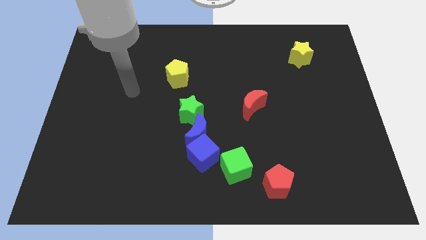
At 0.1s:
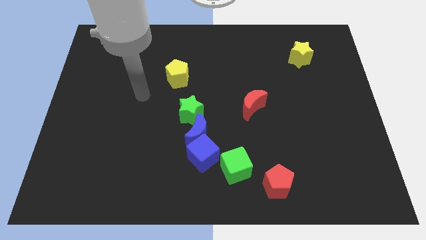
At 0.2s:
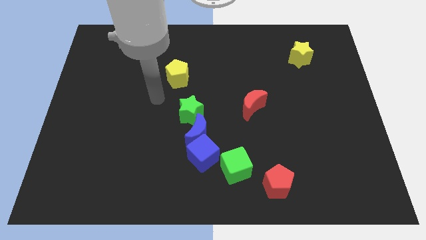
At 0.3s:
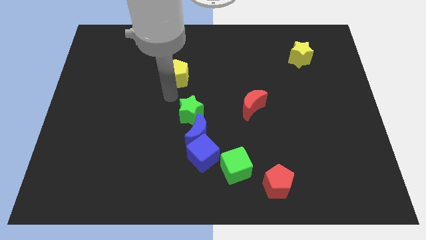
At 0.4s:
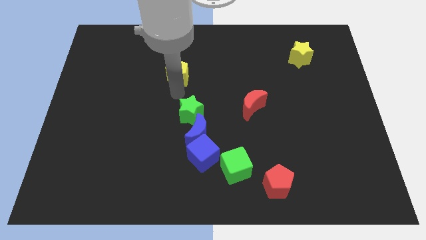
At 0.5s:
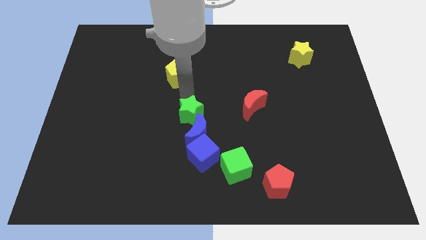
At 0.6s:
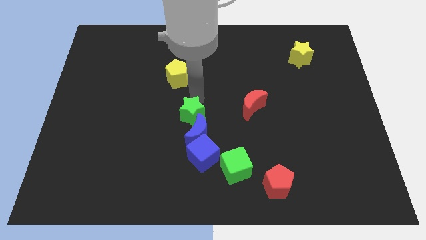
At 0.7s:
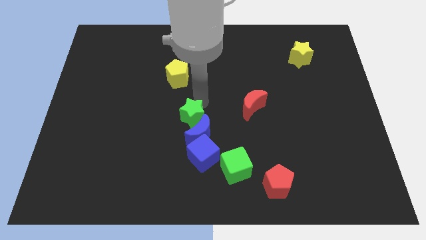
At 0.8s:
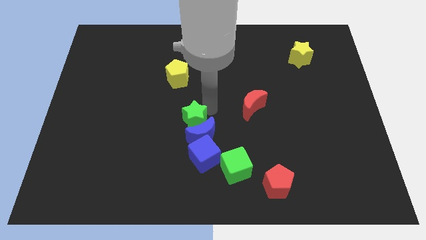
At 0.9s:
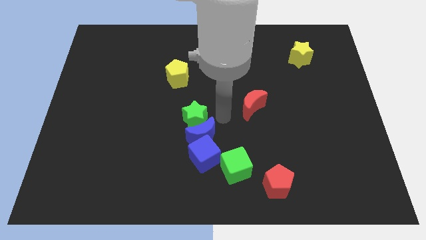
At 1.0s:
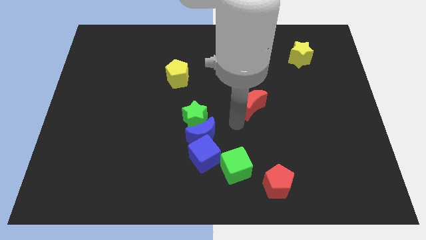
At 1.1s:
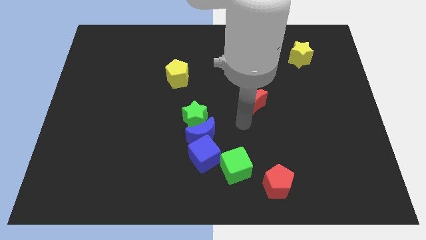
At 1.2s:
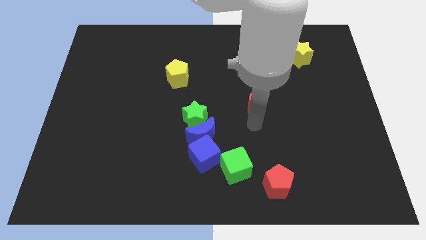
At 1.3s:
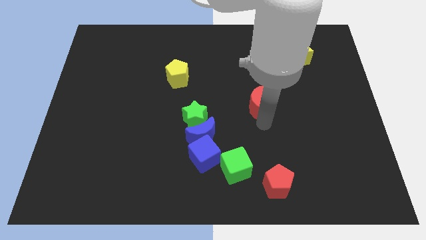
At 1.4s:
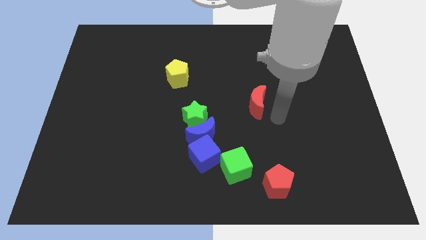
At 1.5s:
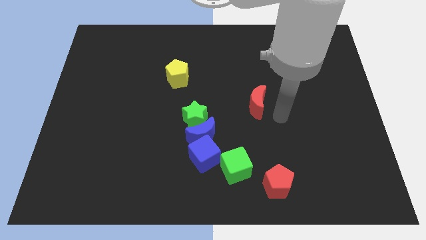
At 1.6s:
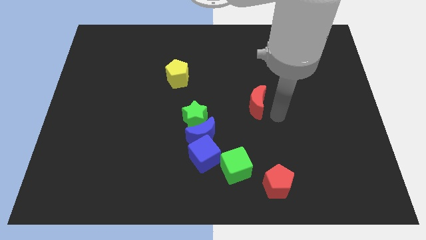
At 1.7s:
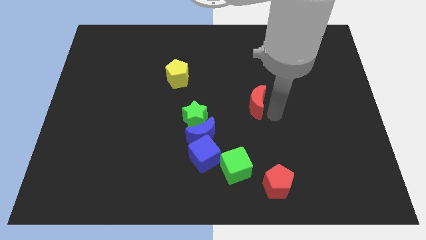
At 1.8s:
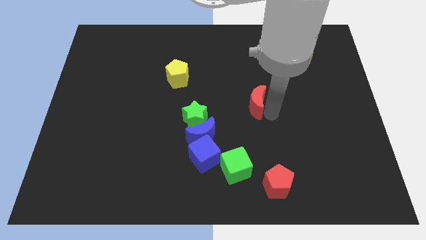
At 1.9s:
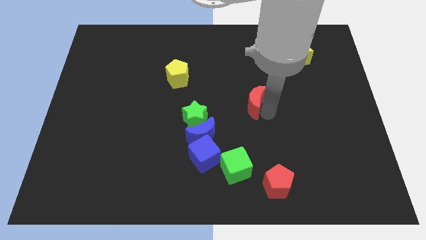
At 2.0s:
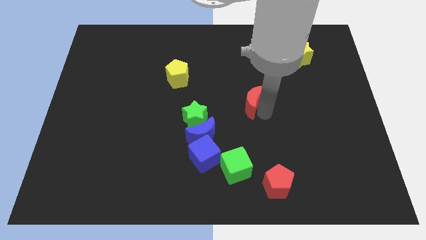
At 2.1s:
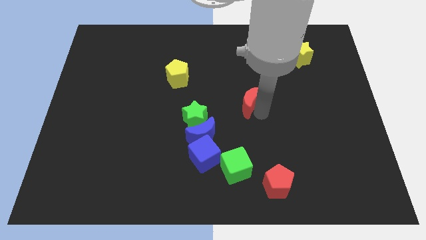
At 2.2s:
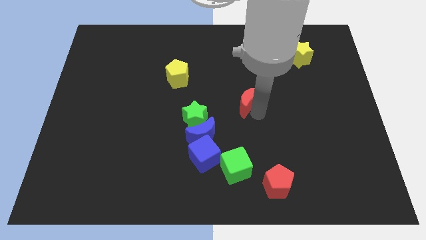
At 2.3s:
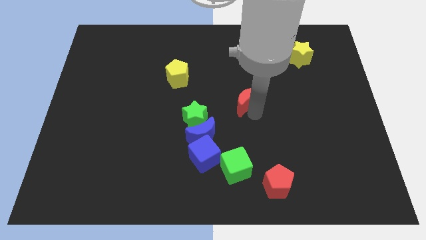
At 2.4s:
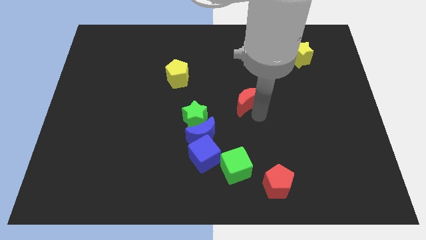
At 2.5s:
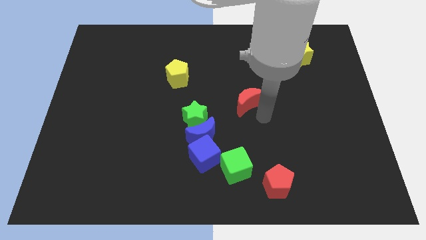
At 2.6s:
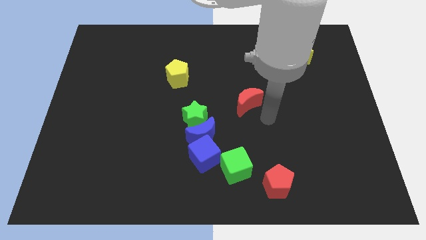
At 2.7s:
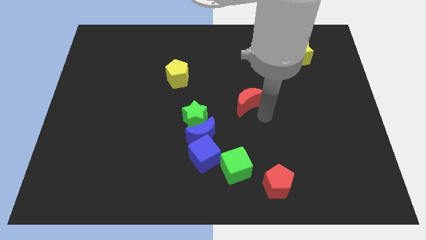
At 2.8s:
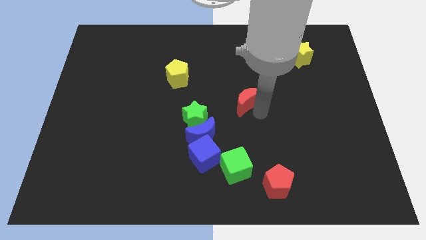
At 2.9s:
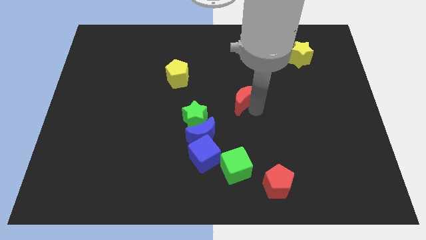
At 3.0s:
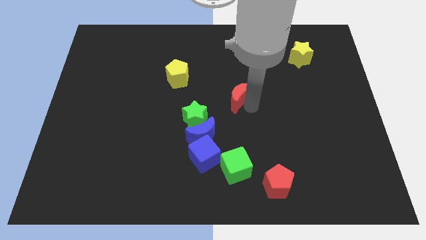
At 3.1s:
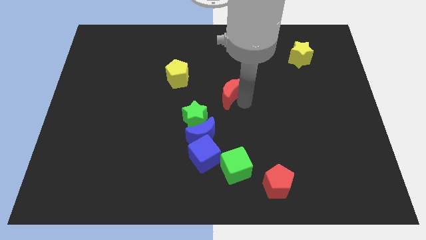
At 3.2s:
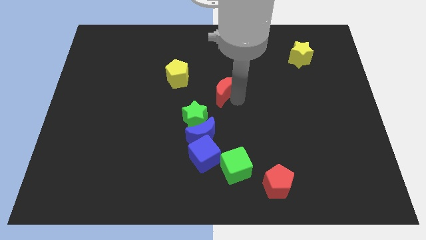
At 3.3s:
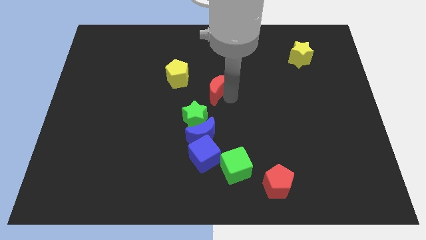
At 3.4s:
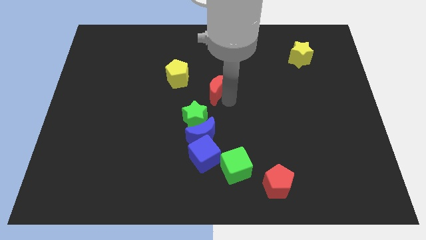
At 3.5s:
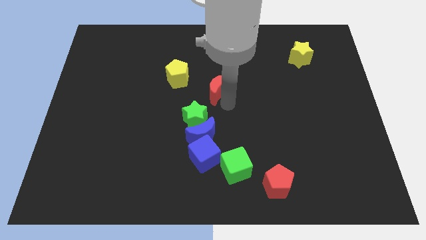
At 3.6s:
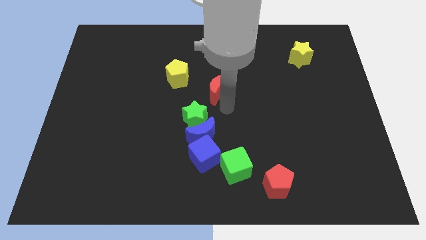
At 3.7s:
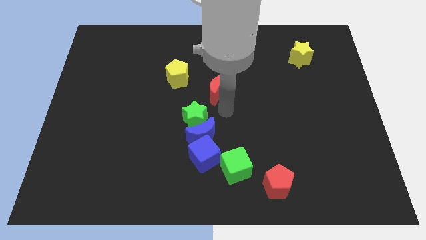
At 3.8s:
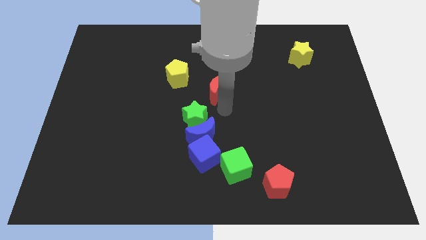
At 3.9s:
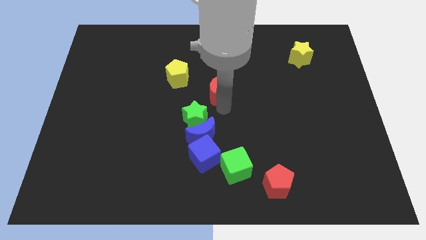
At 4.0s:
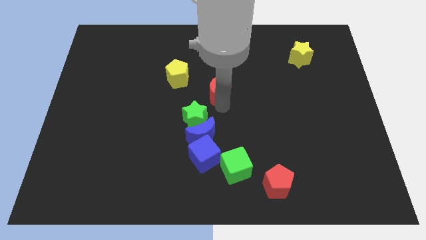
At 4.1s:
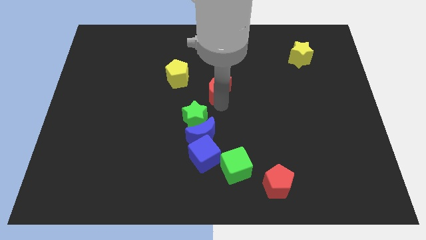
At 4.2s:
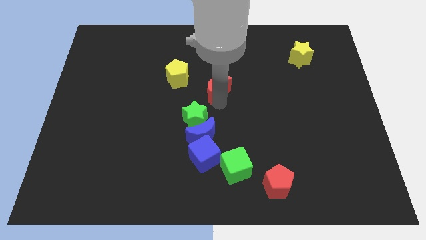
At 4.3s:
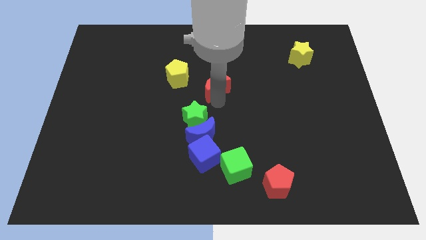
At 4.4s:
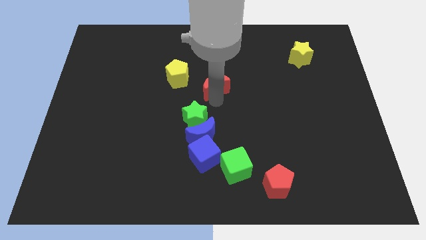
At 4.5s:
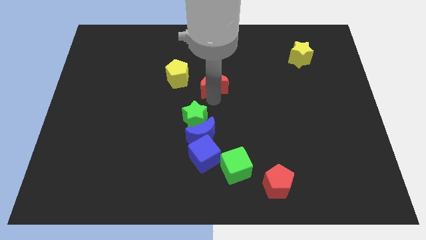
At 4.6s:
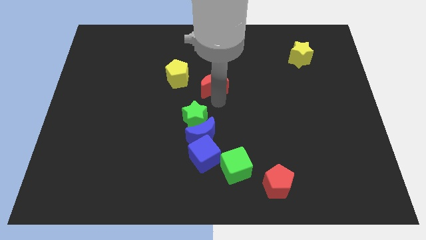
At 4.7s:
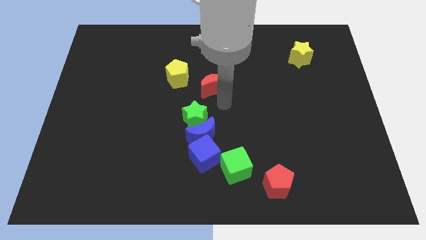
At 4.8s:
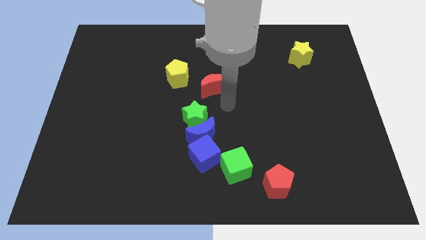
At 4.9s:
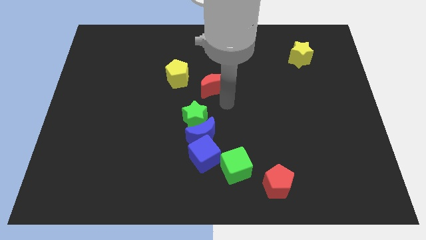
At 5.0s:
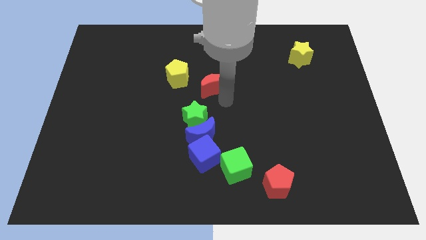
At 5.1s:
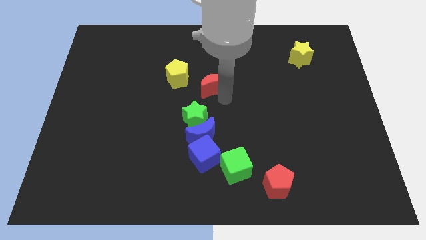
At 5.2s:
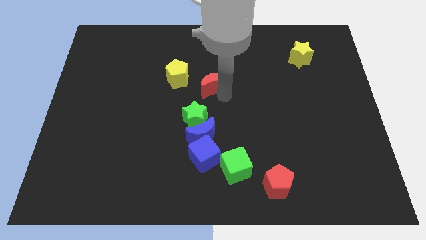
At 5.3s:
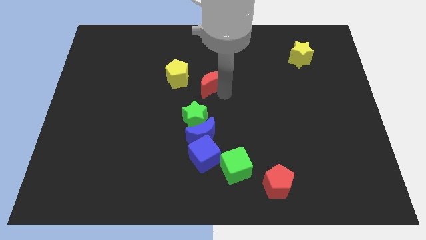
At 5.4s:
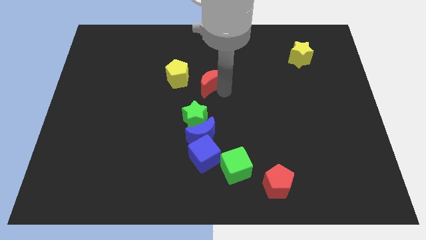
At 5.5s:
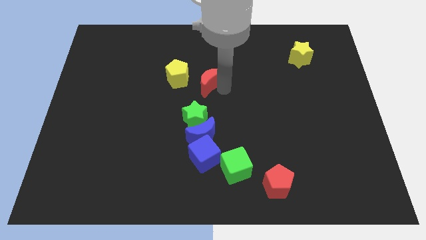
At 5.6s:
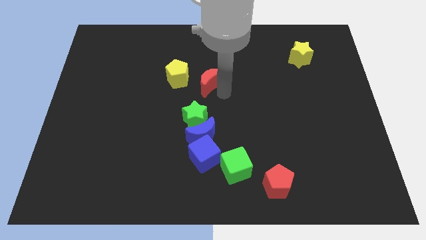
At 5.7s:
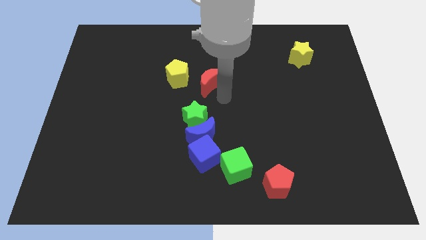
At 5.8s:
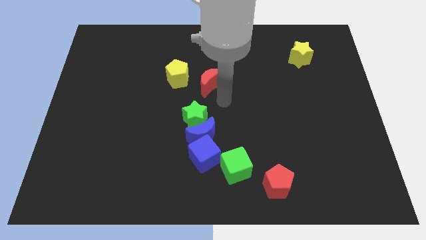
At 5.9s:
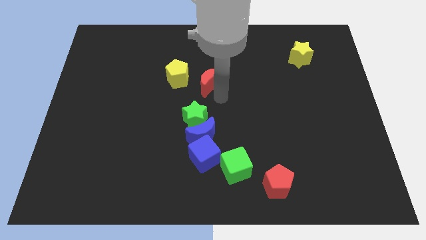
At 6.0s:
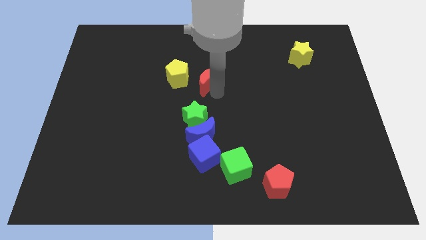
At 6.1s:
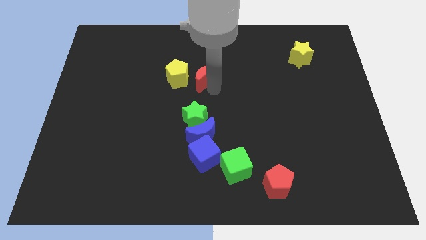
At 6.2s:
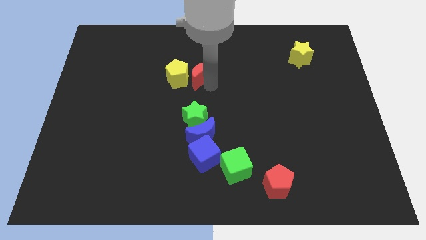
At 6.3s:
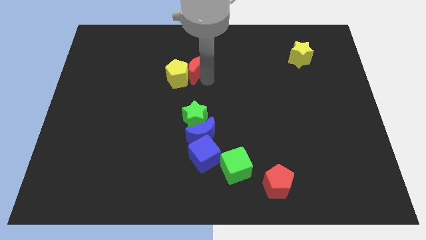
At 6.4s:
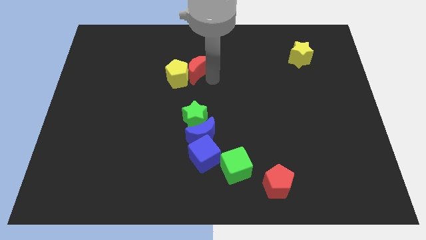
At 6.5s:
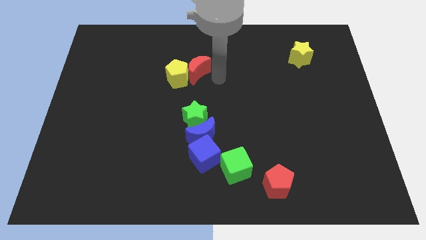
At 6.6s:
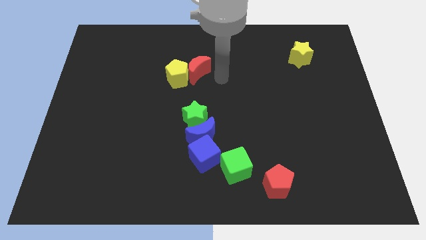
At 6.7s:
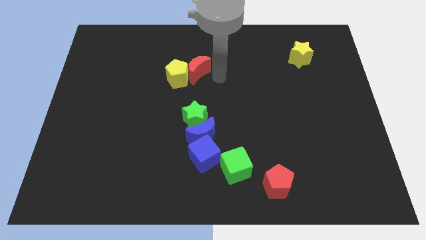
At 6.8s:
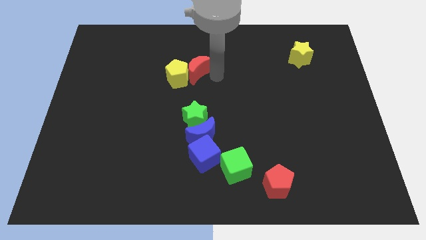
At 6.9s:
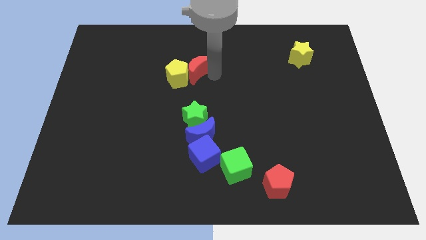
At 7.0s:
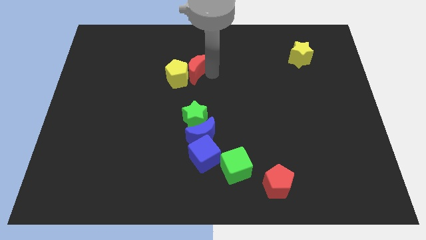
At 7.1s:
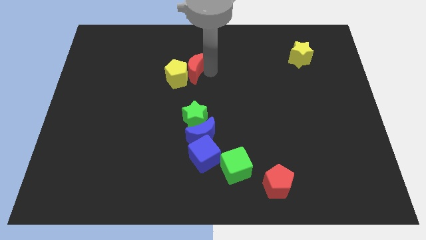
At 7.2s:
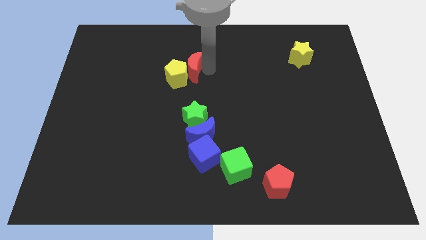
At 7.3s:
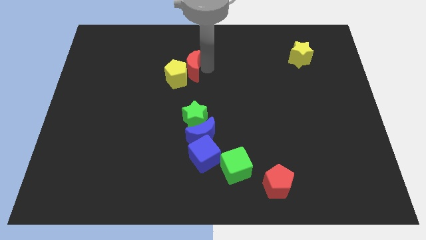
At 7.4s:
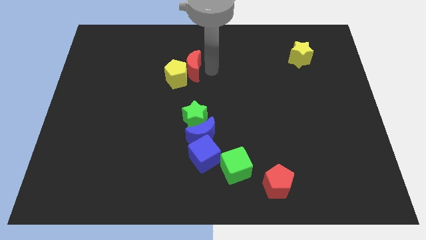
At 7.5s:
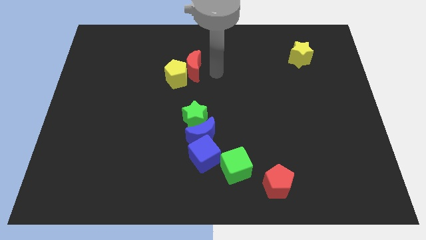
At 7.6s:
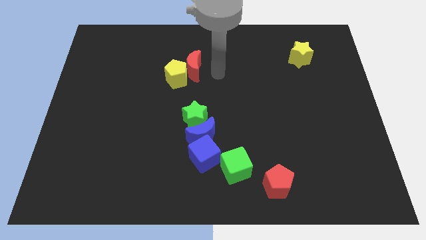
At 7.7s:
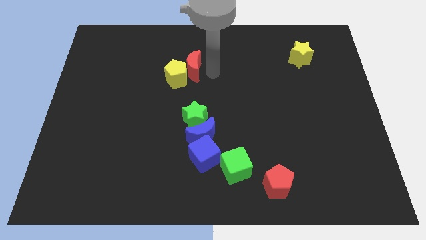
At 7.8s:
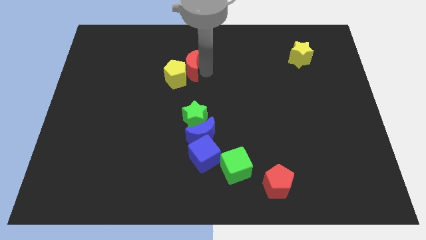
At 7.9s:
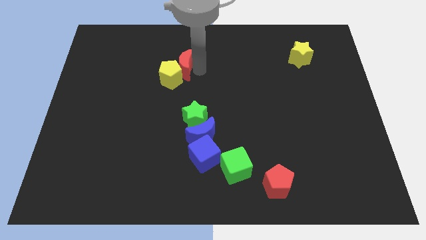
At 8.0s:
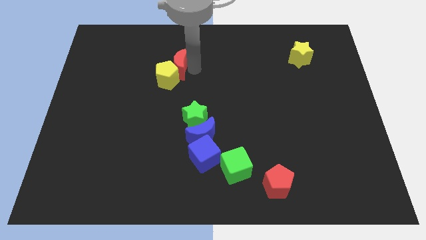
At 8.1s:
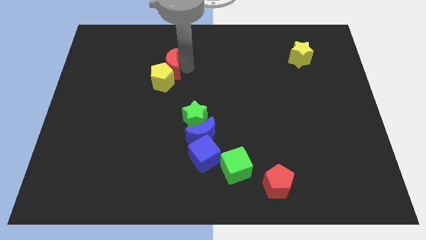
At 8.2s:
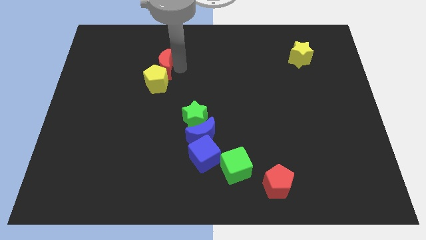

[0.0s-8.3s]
push the red moon diagonally up and to the left of the yellow pentagon
